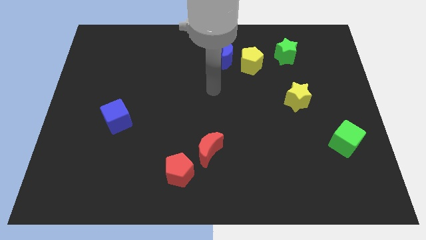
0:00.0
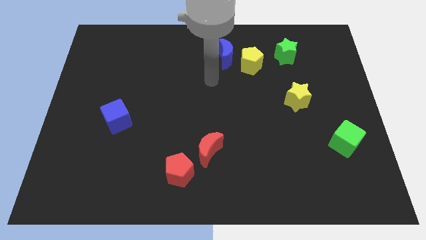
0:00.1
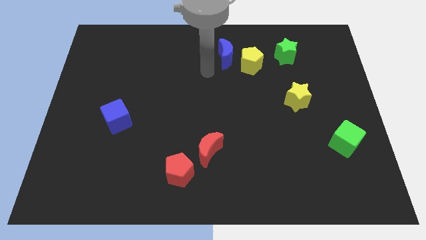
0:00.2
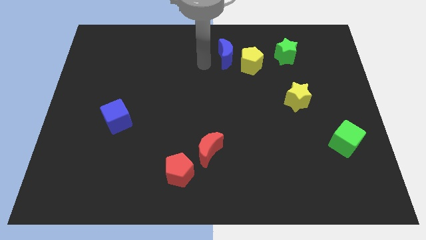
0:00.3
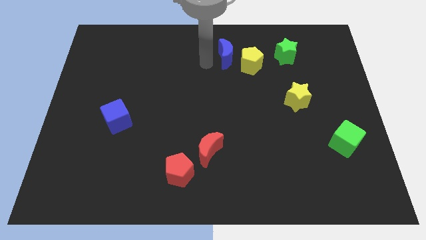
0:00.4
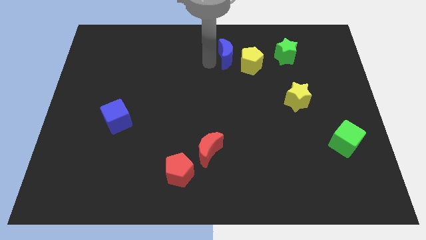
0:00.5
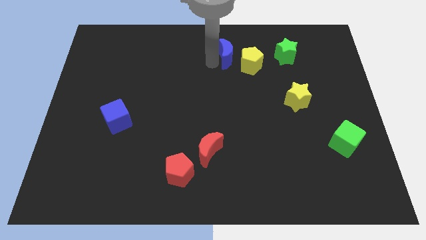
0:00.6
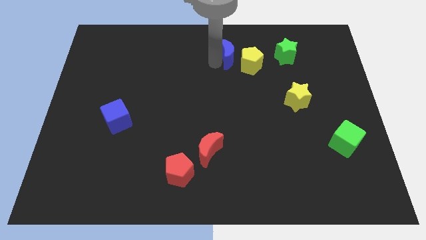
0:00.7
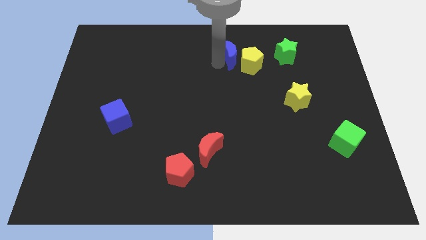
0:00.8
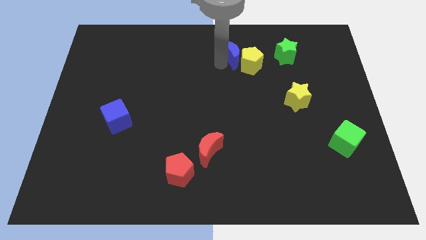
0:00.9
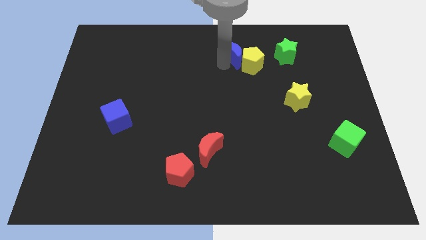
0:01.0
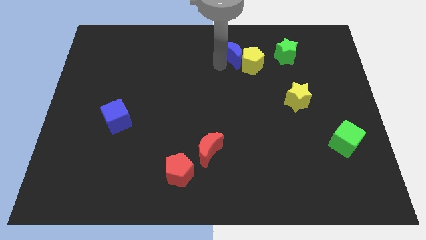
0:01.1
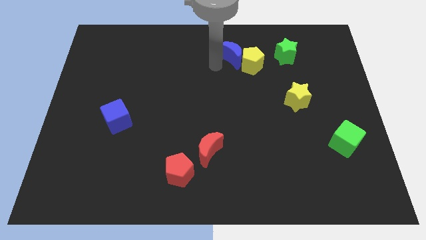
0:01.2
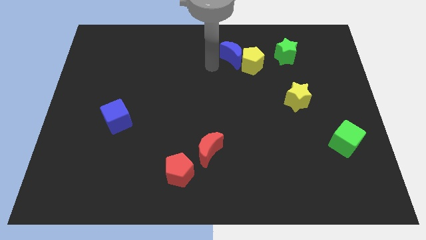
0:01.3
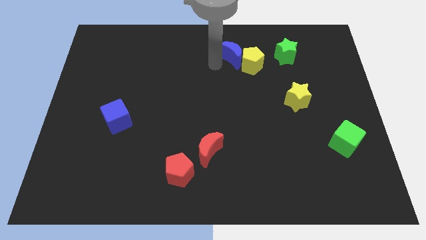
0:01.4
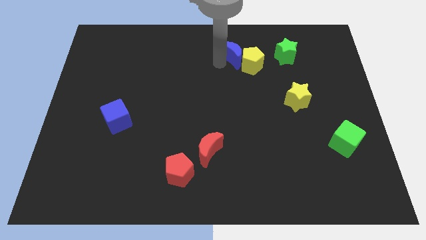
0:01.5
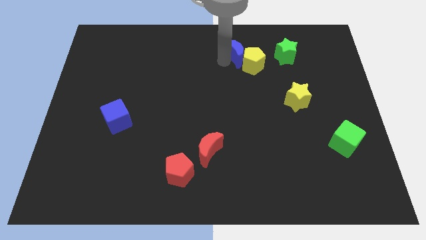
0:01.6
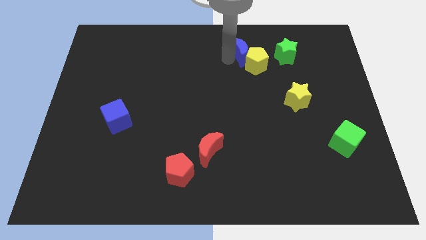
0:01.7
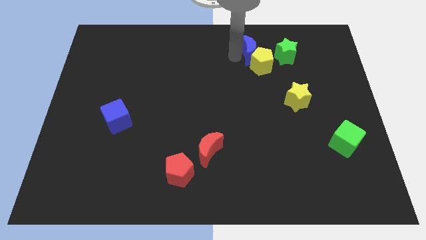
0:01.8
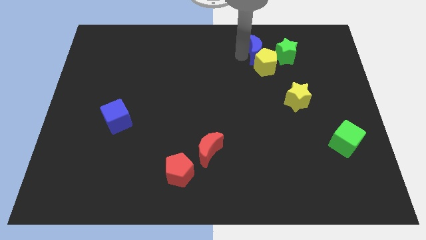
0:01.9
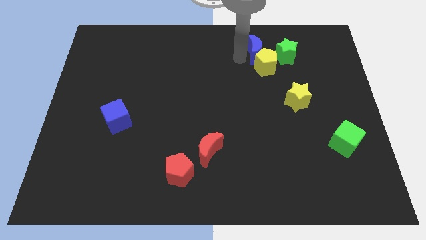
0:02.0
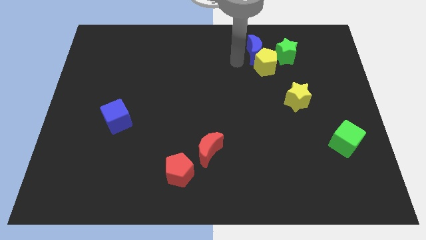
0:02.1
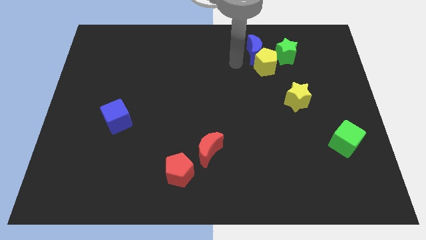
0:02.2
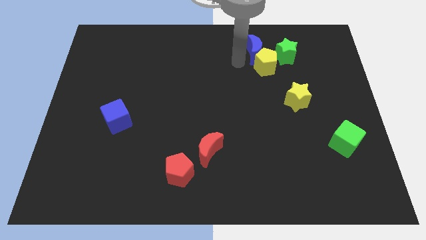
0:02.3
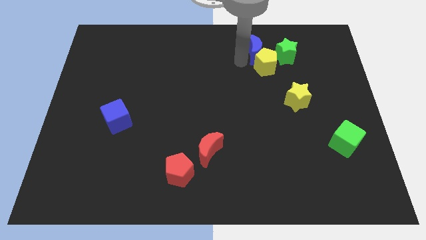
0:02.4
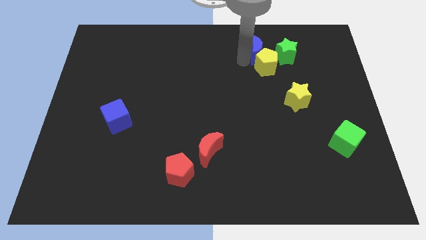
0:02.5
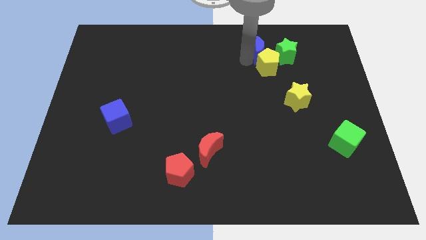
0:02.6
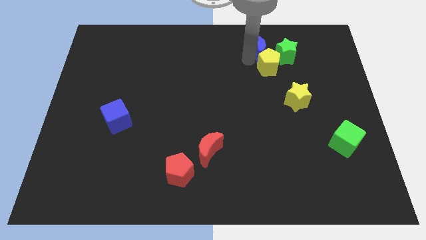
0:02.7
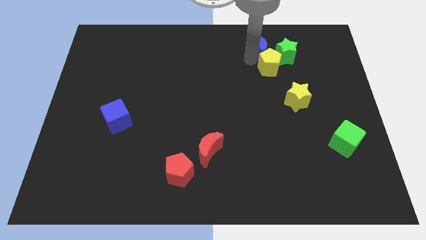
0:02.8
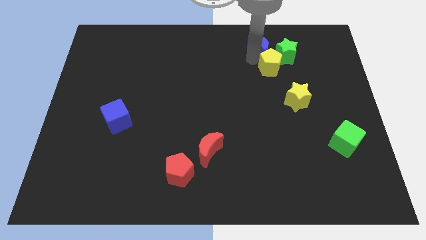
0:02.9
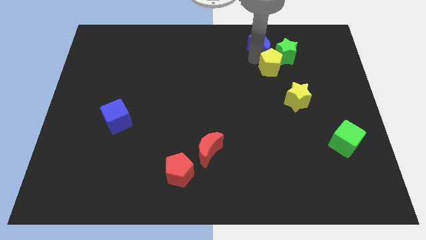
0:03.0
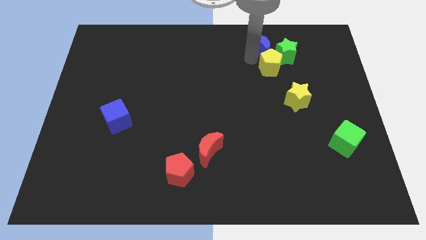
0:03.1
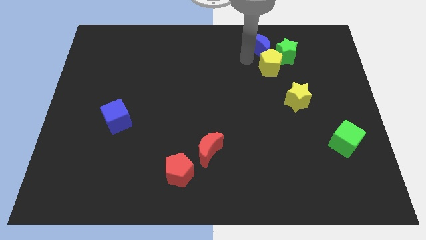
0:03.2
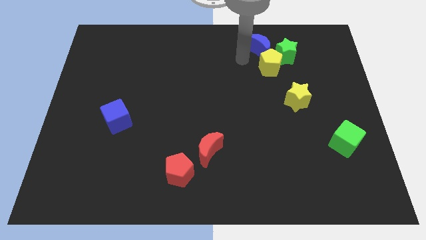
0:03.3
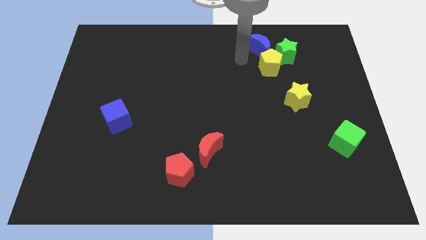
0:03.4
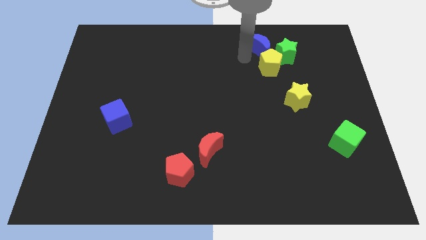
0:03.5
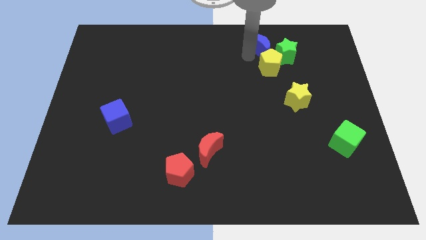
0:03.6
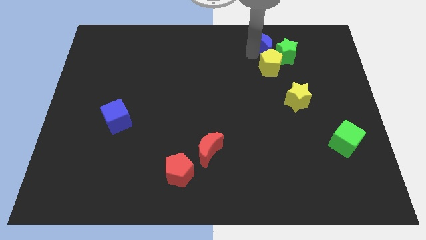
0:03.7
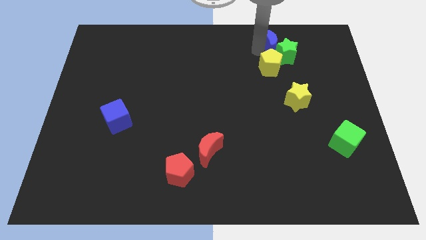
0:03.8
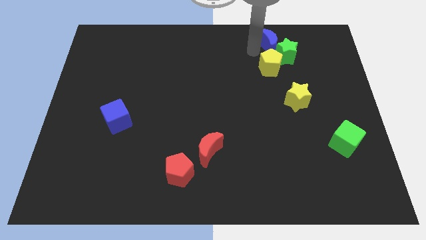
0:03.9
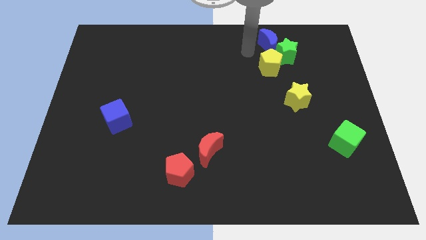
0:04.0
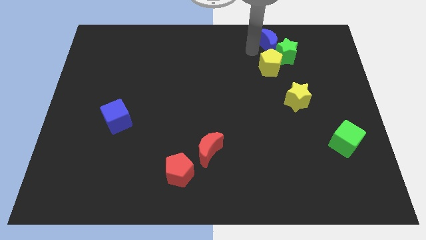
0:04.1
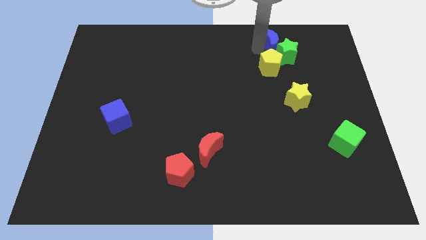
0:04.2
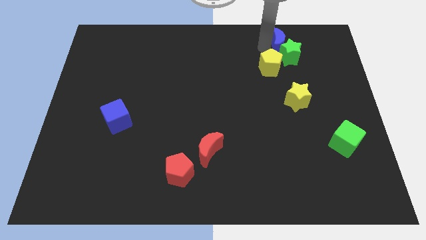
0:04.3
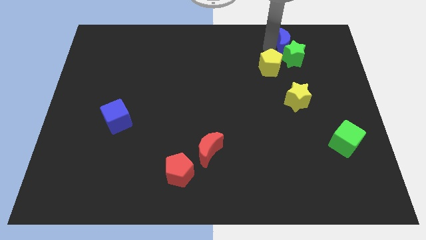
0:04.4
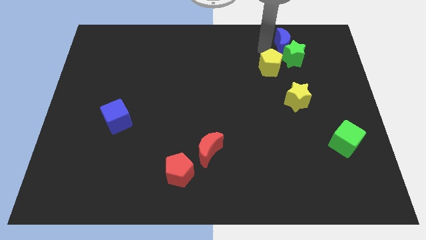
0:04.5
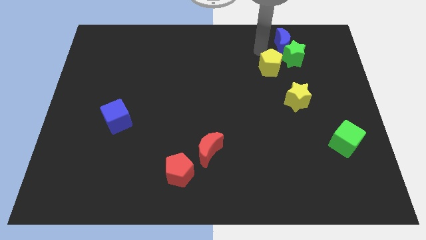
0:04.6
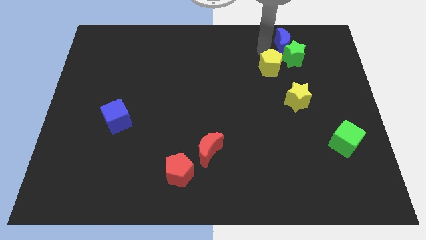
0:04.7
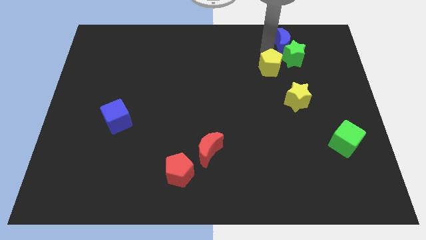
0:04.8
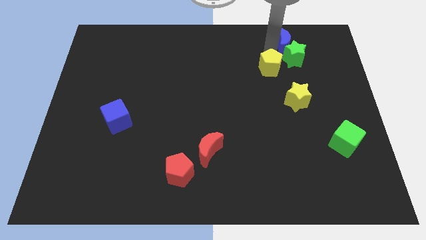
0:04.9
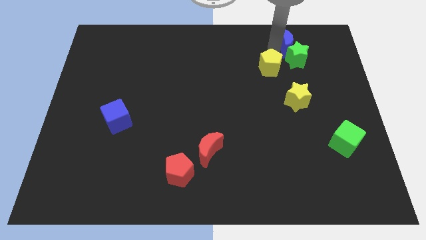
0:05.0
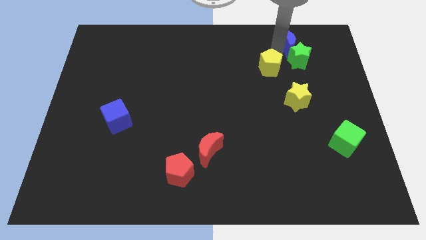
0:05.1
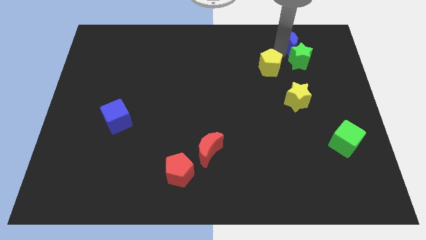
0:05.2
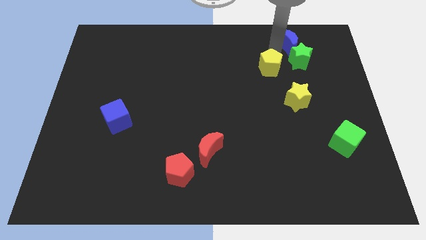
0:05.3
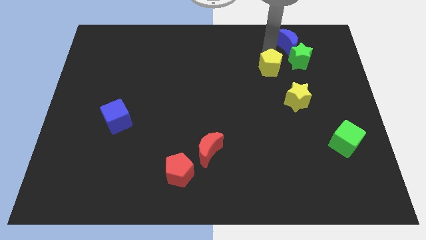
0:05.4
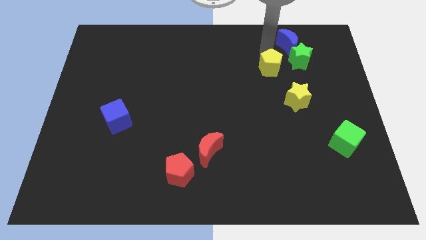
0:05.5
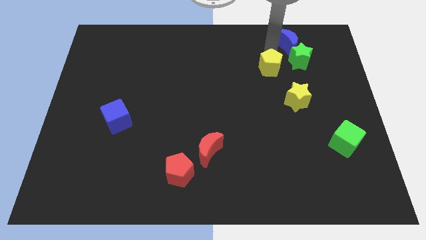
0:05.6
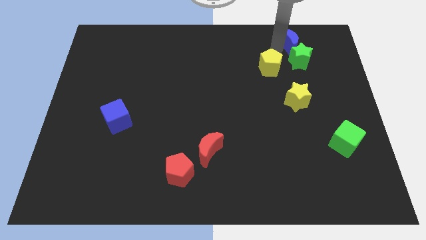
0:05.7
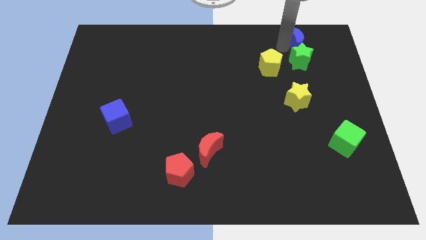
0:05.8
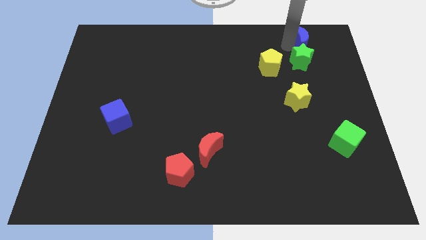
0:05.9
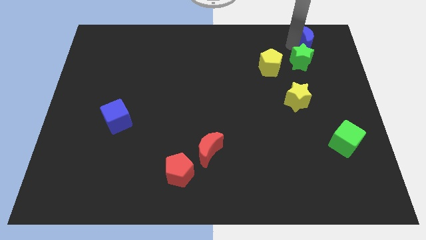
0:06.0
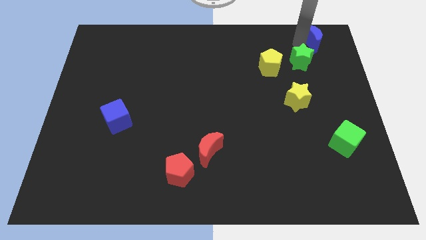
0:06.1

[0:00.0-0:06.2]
move the blue moon to the top right
